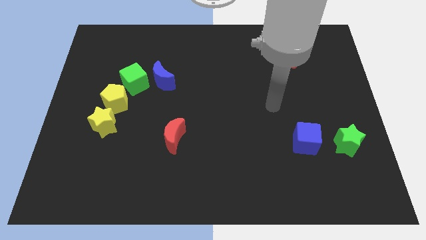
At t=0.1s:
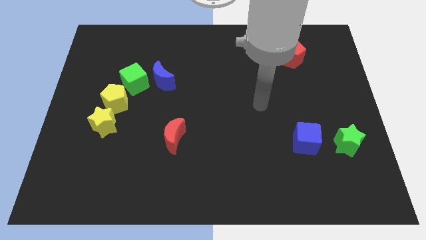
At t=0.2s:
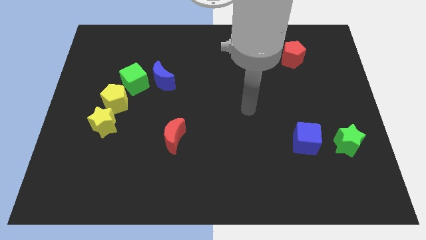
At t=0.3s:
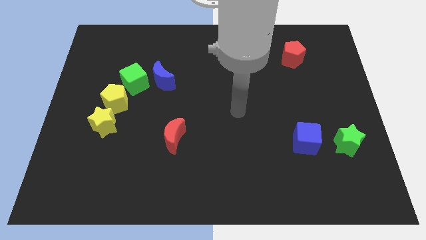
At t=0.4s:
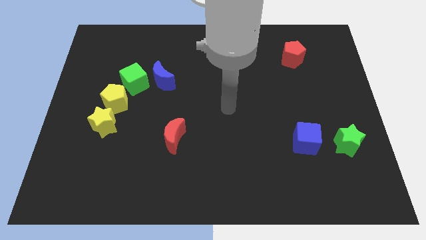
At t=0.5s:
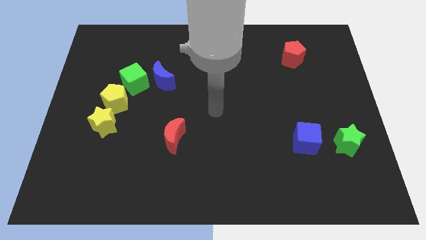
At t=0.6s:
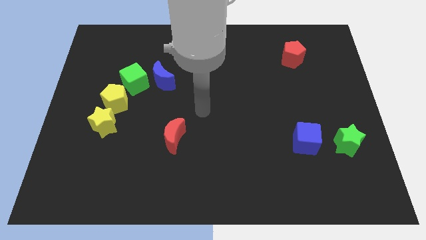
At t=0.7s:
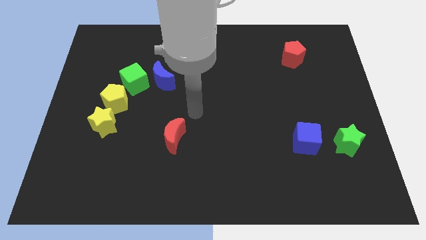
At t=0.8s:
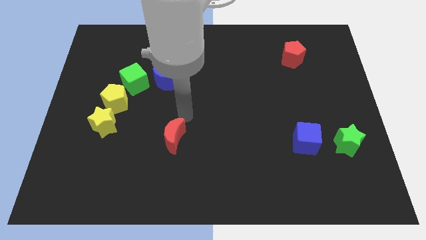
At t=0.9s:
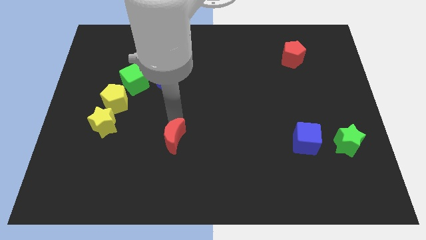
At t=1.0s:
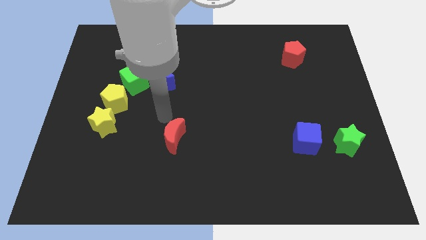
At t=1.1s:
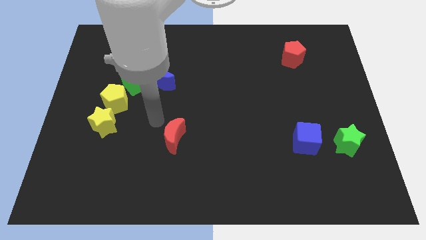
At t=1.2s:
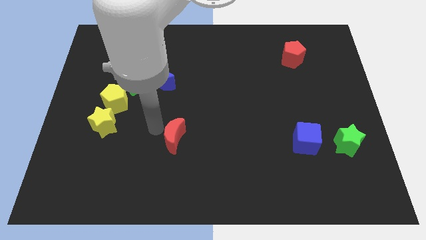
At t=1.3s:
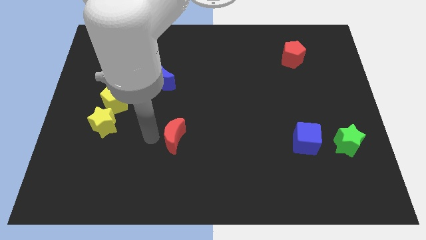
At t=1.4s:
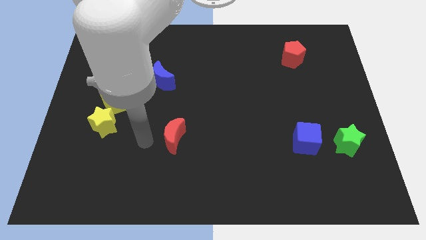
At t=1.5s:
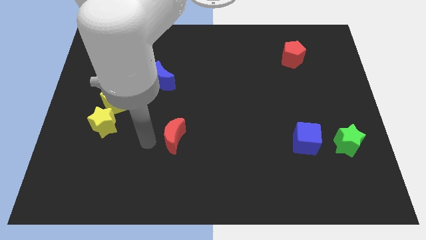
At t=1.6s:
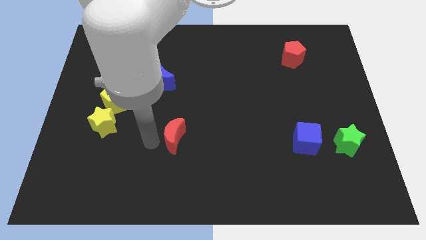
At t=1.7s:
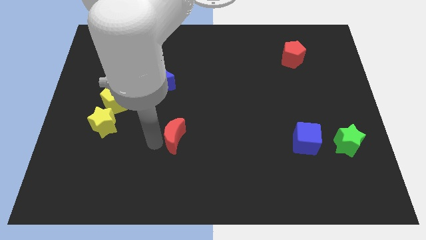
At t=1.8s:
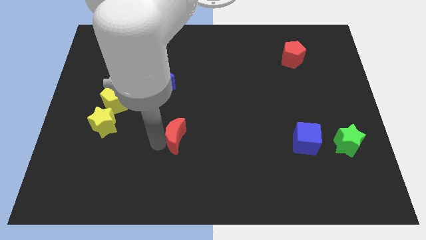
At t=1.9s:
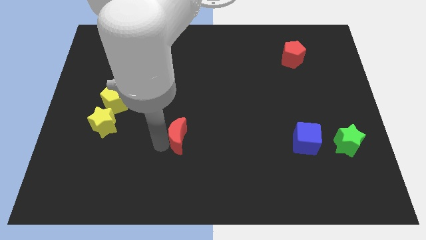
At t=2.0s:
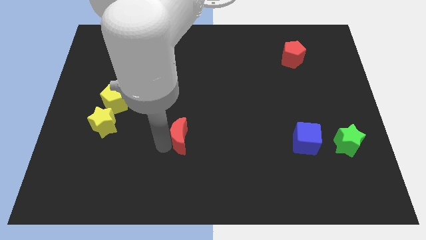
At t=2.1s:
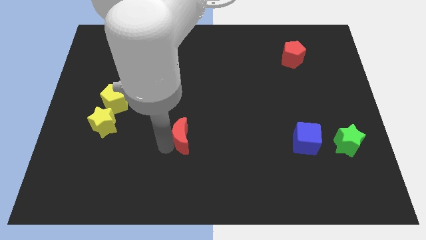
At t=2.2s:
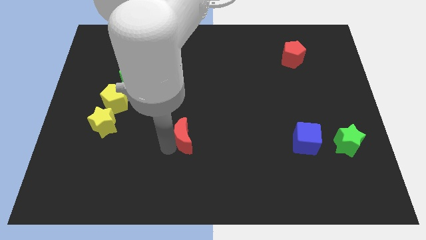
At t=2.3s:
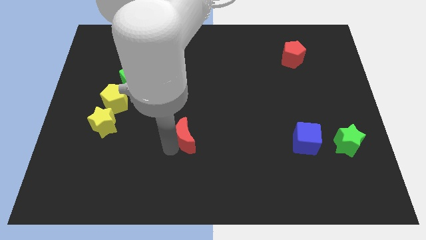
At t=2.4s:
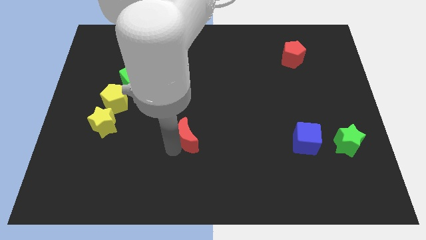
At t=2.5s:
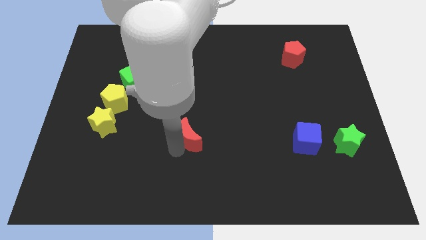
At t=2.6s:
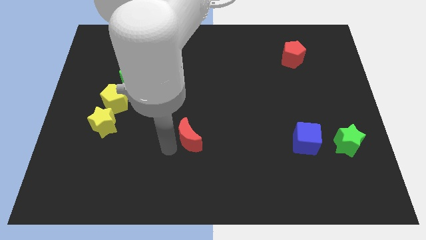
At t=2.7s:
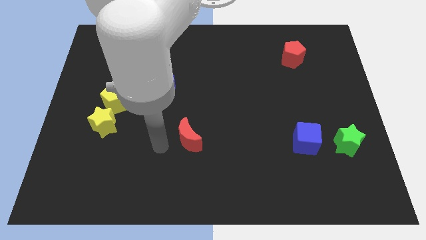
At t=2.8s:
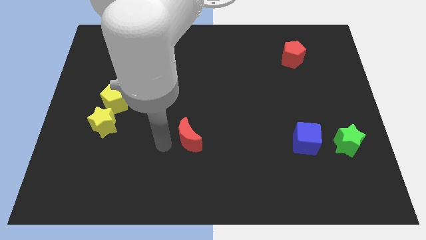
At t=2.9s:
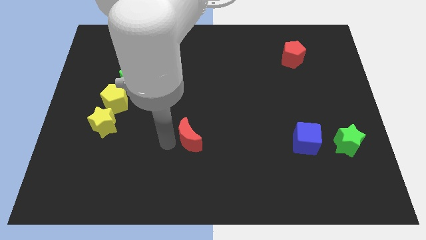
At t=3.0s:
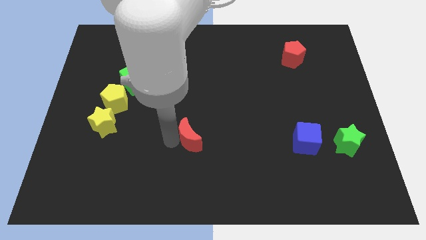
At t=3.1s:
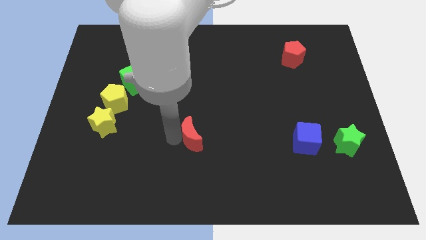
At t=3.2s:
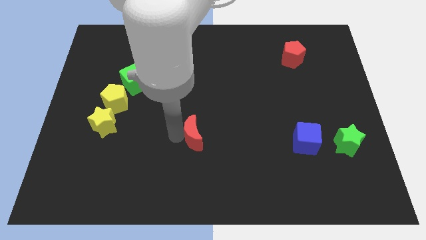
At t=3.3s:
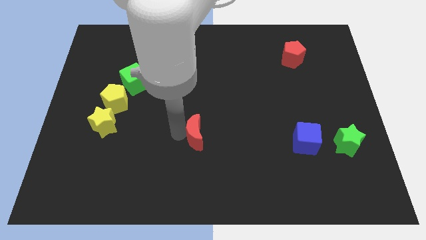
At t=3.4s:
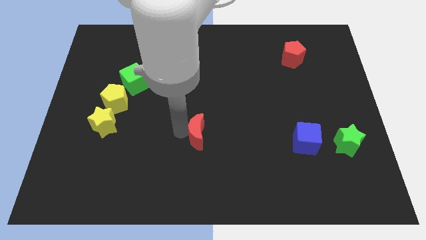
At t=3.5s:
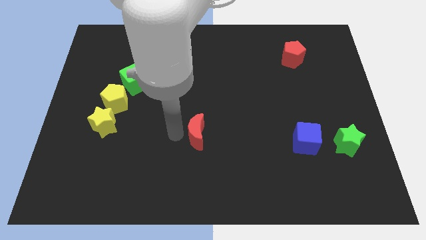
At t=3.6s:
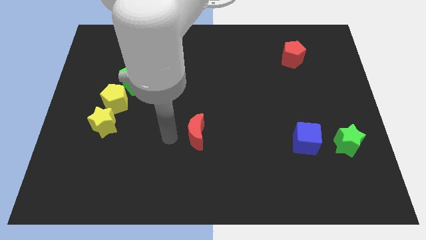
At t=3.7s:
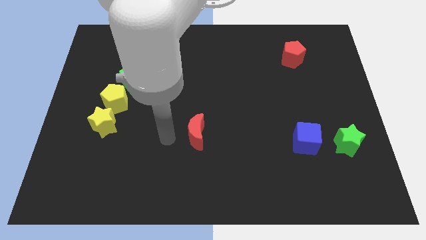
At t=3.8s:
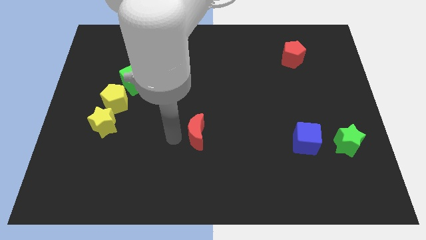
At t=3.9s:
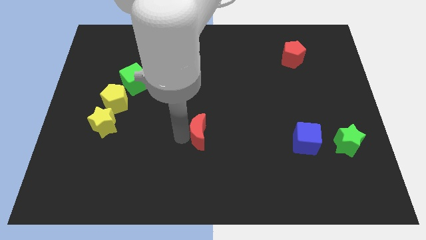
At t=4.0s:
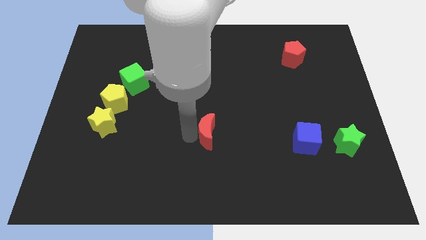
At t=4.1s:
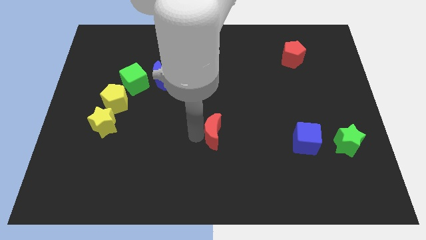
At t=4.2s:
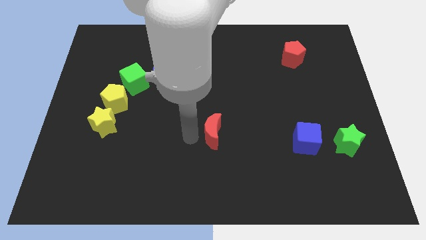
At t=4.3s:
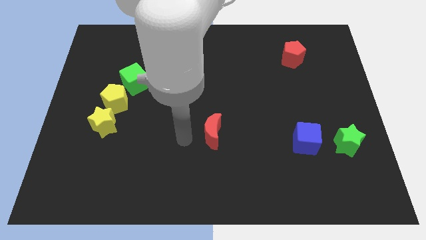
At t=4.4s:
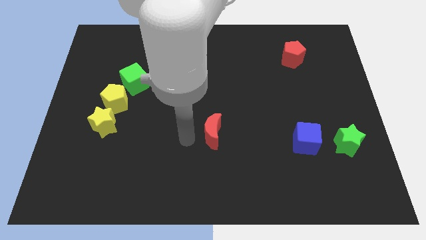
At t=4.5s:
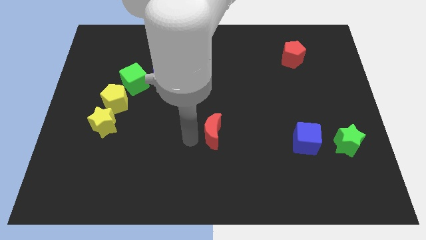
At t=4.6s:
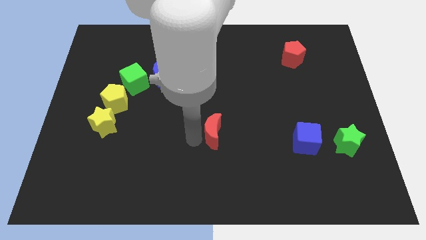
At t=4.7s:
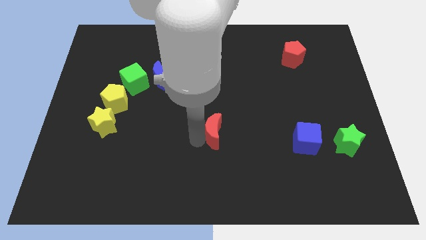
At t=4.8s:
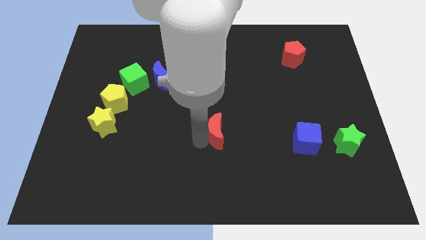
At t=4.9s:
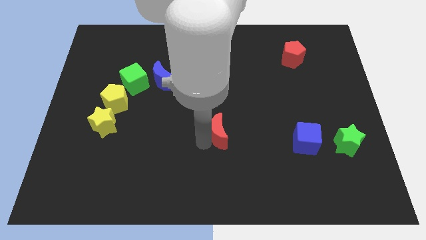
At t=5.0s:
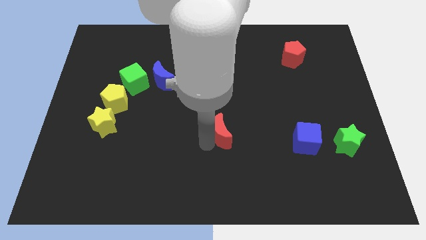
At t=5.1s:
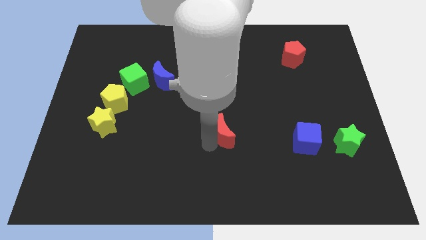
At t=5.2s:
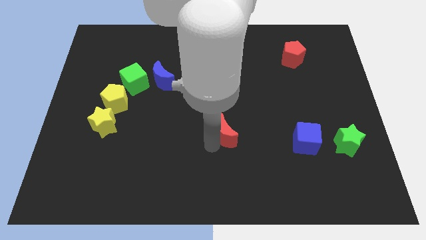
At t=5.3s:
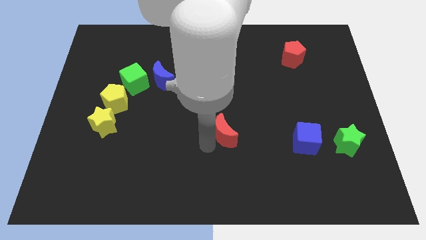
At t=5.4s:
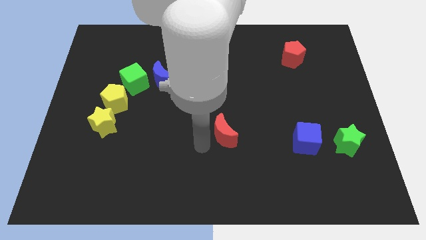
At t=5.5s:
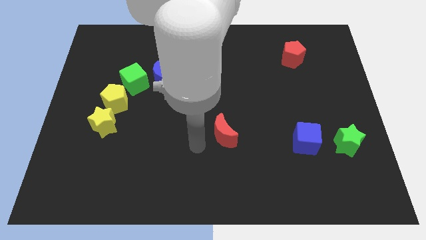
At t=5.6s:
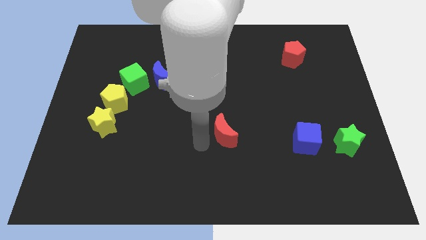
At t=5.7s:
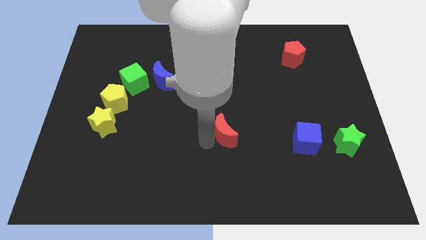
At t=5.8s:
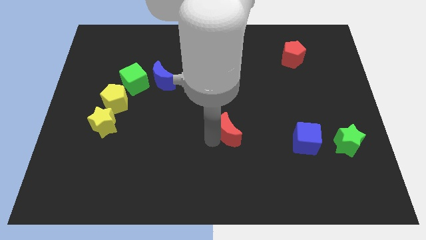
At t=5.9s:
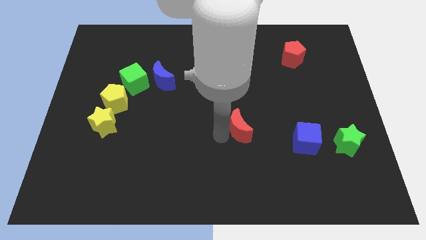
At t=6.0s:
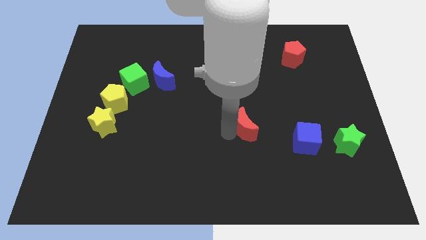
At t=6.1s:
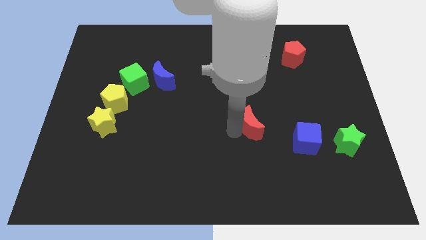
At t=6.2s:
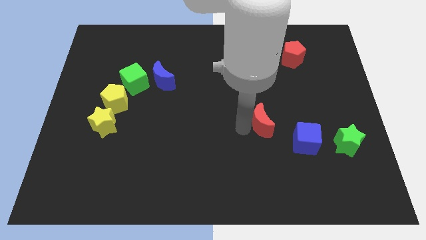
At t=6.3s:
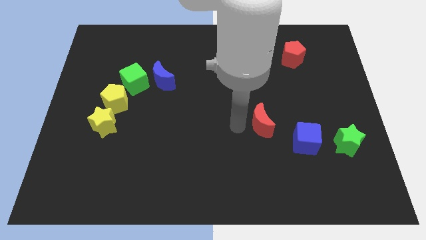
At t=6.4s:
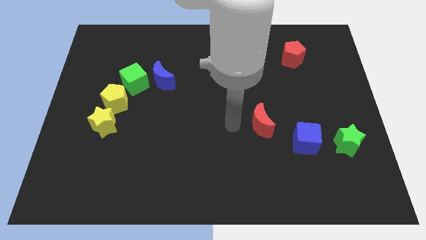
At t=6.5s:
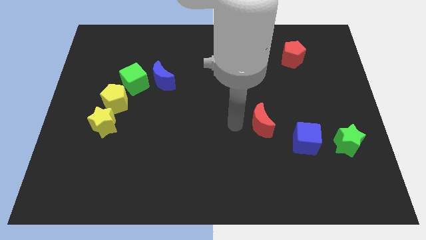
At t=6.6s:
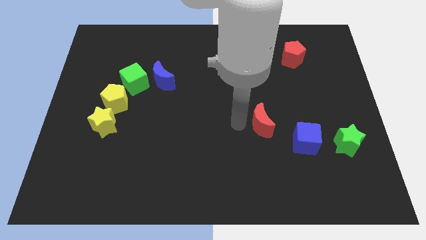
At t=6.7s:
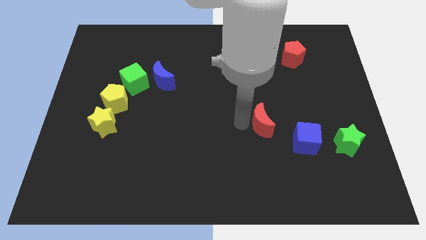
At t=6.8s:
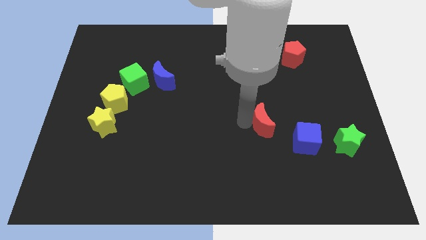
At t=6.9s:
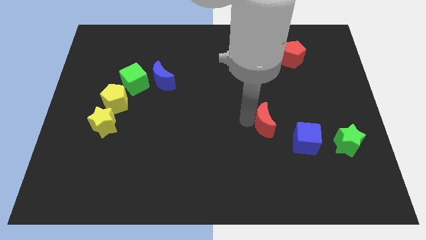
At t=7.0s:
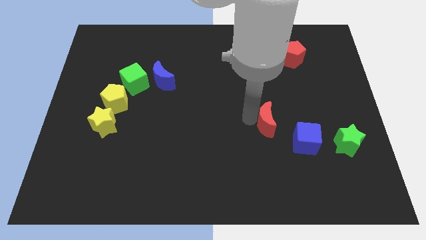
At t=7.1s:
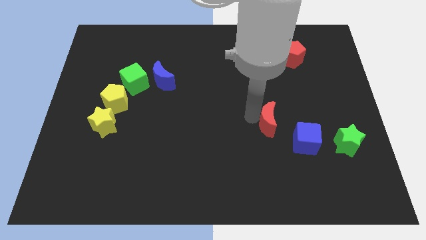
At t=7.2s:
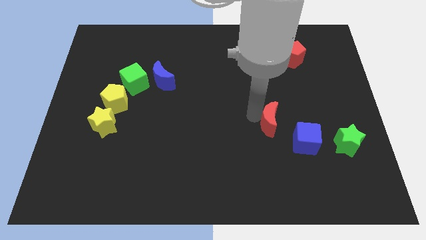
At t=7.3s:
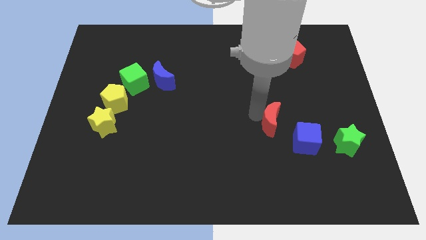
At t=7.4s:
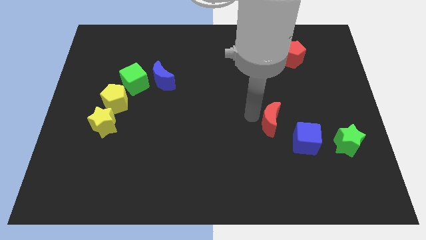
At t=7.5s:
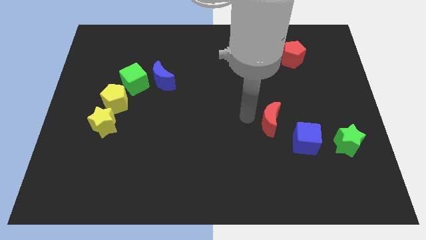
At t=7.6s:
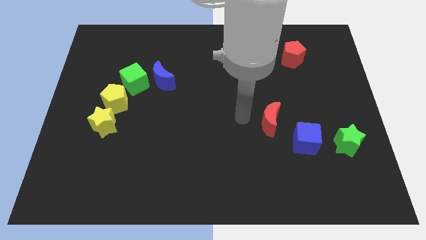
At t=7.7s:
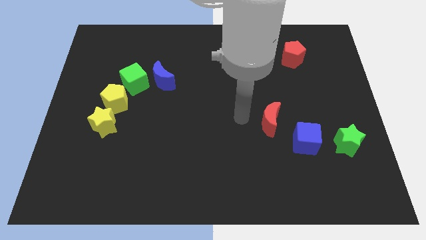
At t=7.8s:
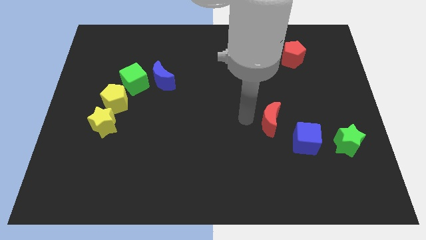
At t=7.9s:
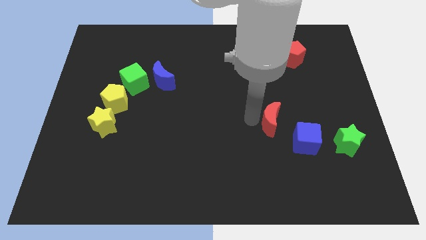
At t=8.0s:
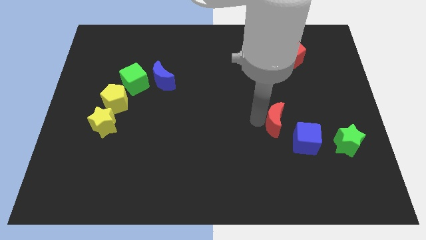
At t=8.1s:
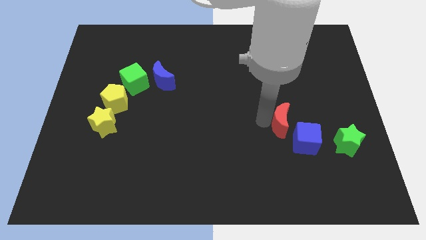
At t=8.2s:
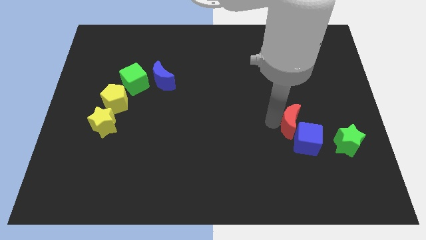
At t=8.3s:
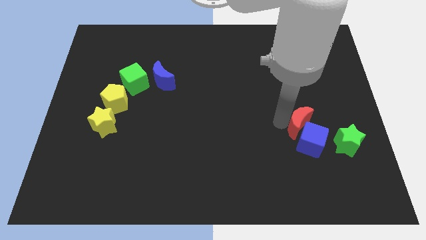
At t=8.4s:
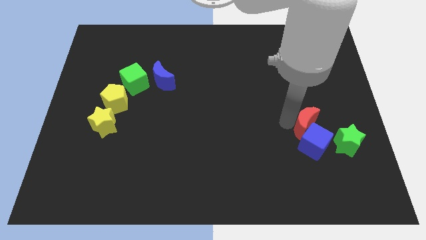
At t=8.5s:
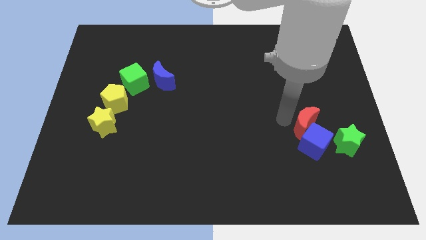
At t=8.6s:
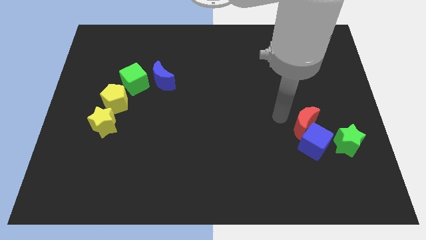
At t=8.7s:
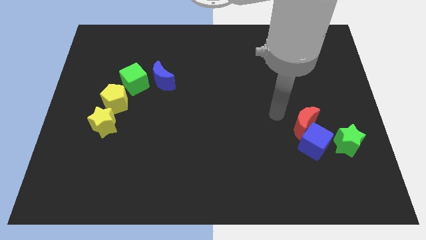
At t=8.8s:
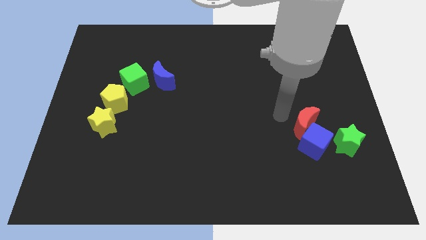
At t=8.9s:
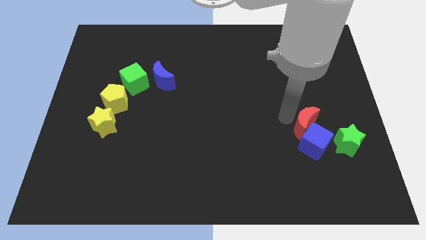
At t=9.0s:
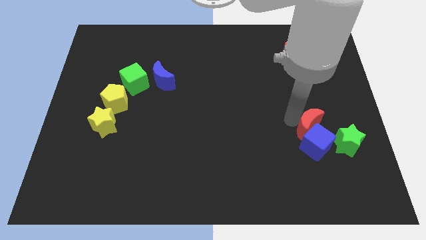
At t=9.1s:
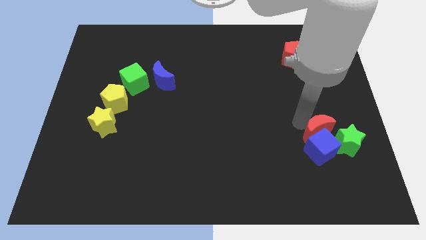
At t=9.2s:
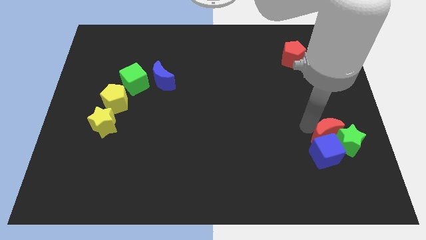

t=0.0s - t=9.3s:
slide the red moon to the green star
